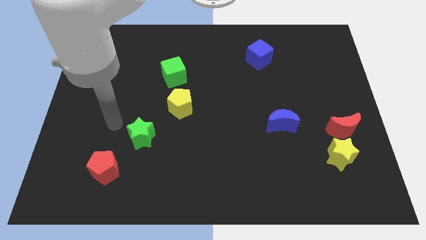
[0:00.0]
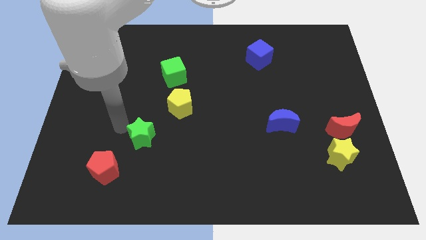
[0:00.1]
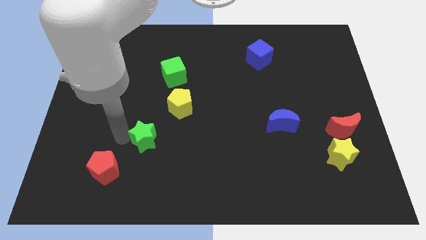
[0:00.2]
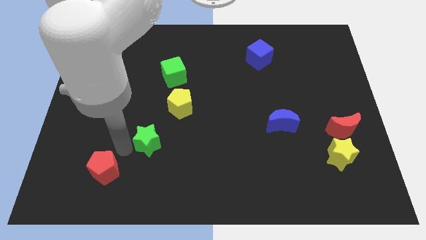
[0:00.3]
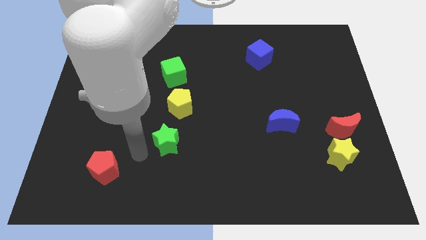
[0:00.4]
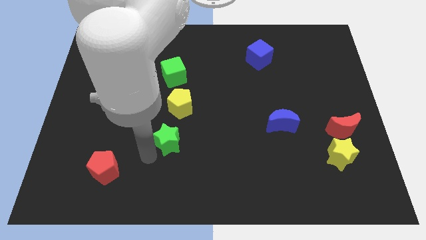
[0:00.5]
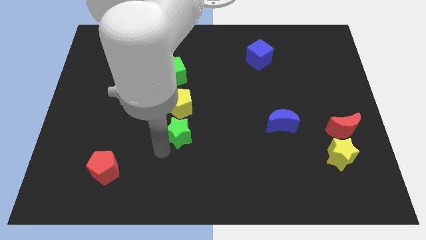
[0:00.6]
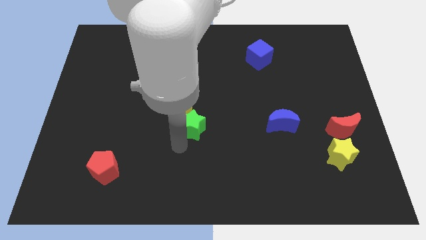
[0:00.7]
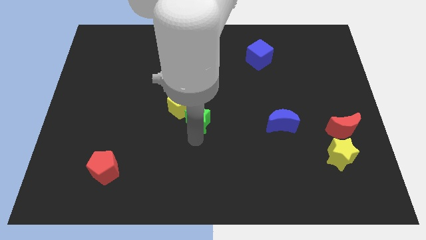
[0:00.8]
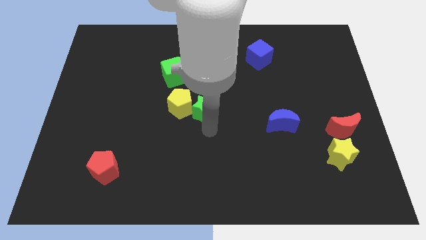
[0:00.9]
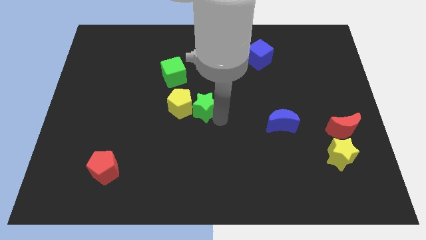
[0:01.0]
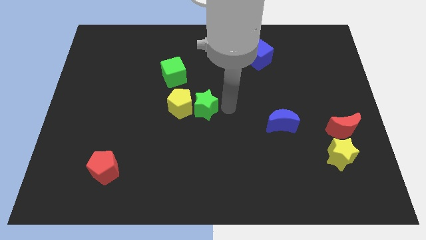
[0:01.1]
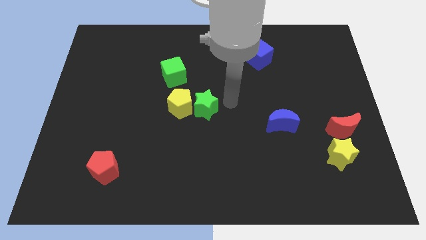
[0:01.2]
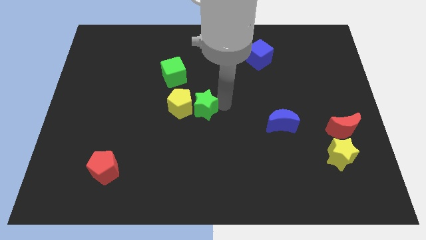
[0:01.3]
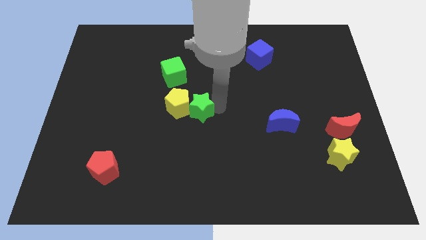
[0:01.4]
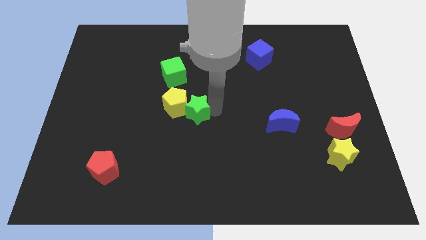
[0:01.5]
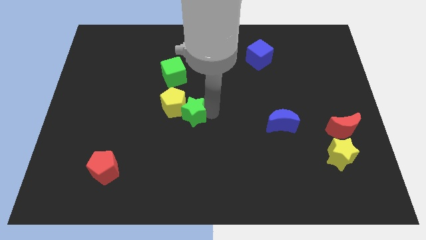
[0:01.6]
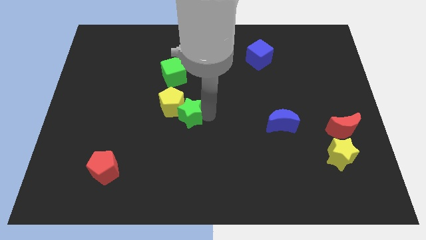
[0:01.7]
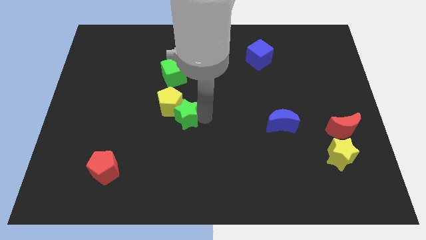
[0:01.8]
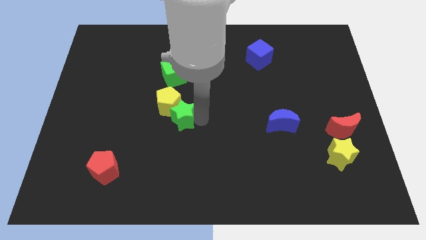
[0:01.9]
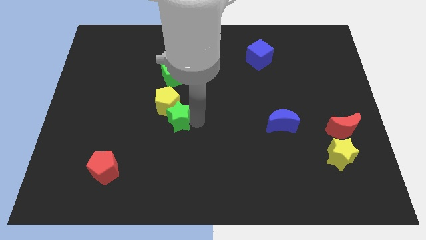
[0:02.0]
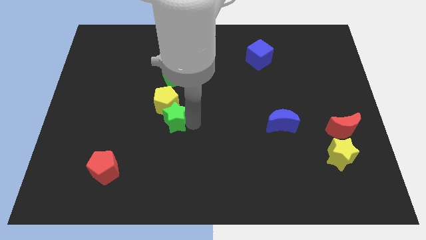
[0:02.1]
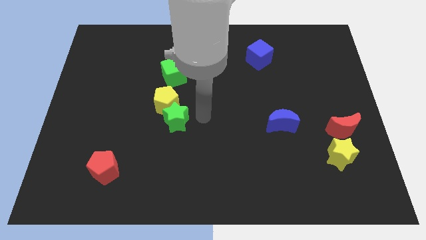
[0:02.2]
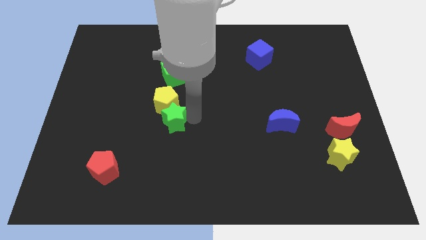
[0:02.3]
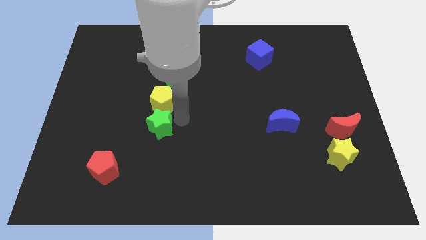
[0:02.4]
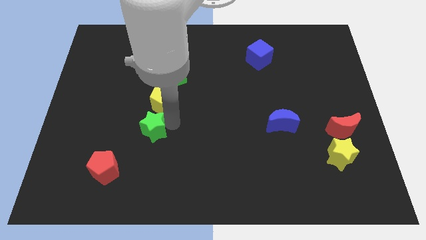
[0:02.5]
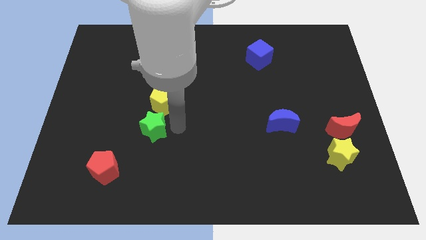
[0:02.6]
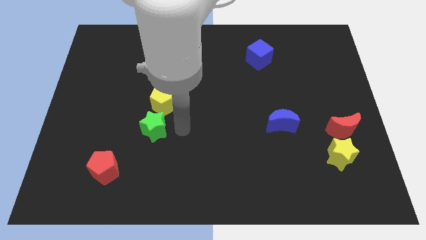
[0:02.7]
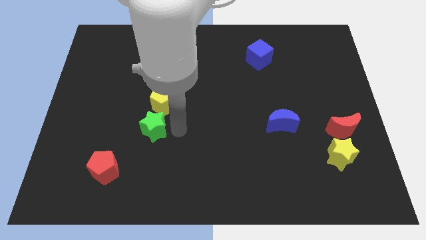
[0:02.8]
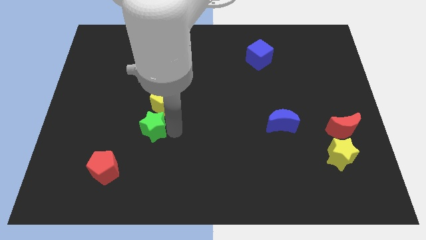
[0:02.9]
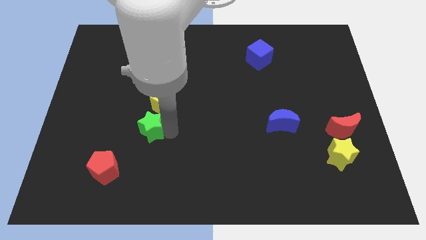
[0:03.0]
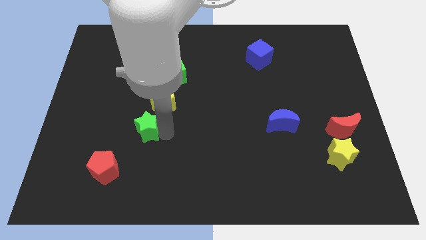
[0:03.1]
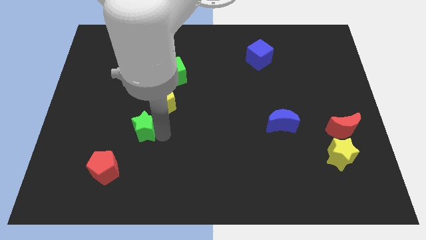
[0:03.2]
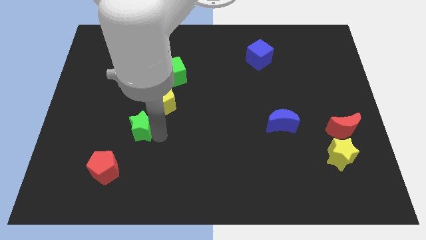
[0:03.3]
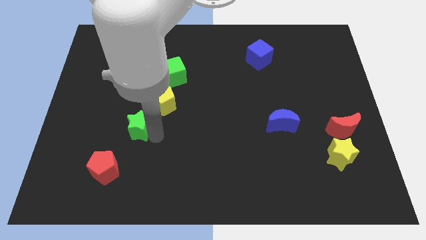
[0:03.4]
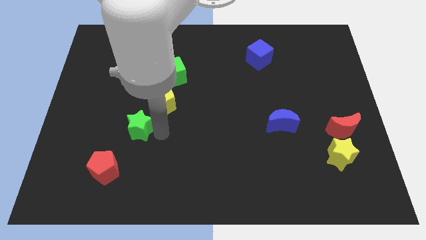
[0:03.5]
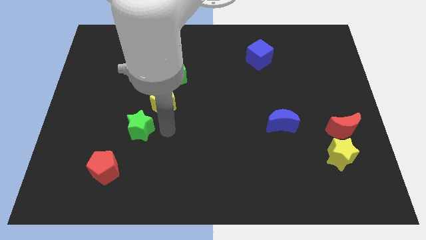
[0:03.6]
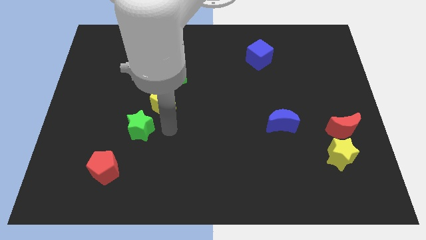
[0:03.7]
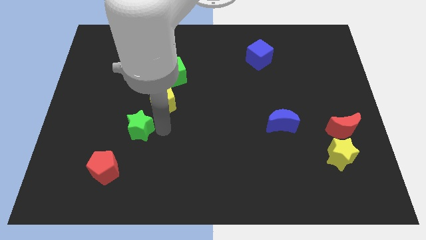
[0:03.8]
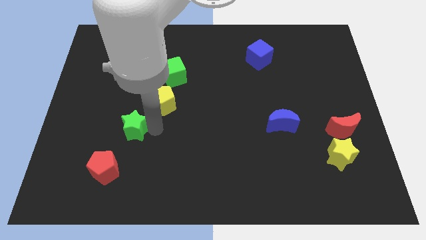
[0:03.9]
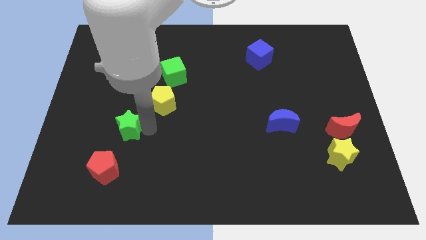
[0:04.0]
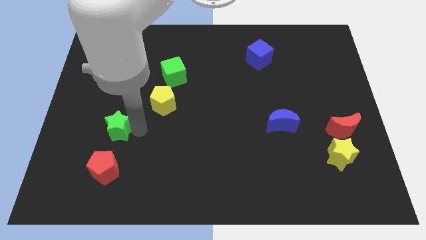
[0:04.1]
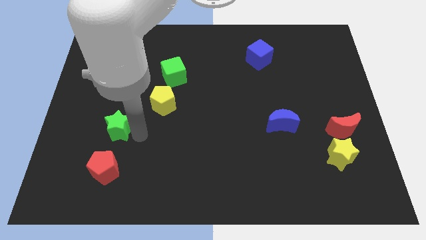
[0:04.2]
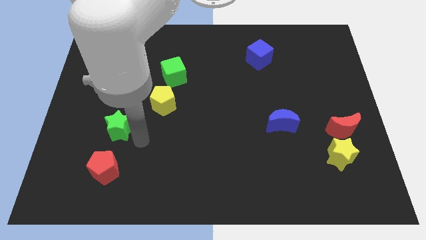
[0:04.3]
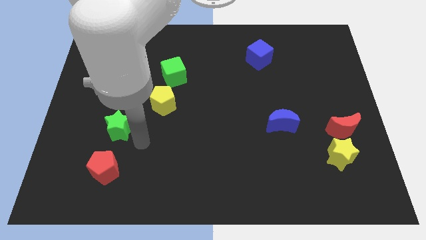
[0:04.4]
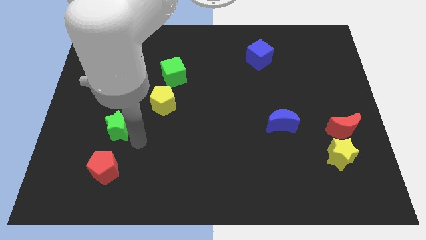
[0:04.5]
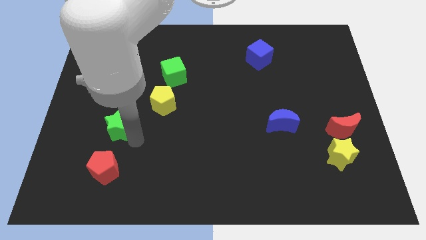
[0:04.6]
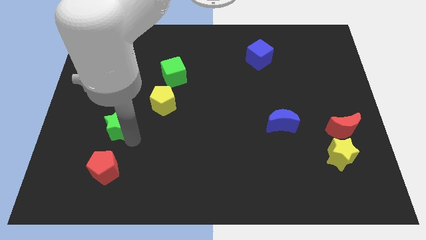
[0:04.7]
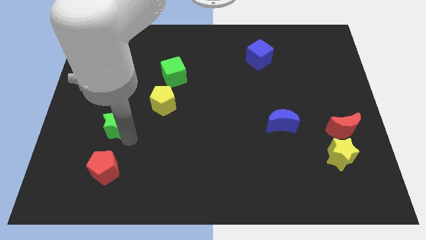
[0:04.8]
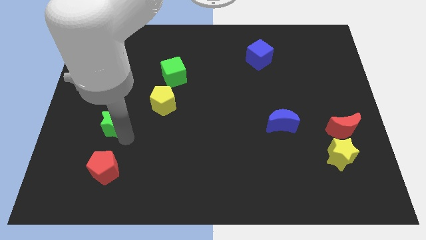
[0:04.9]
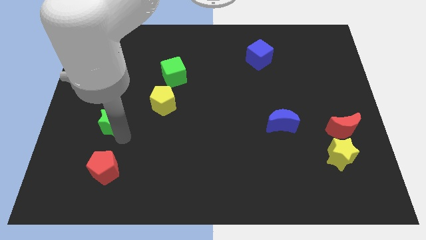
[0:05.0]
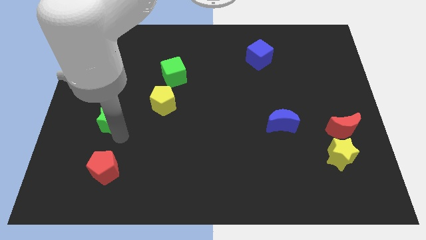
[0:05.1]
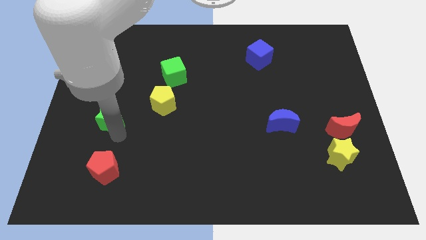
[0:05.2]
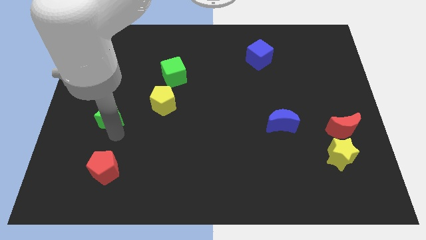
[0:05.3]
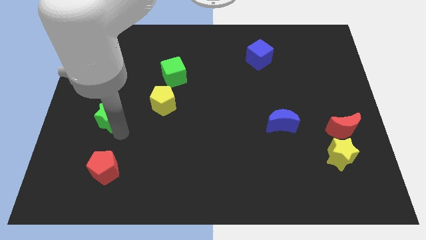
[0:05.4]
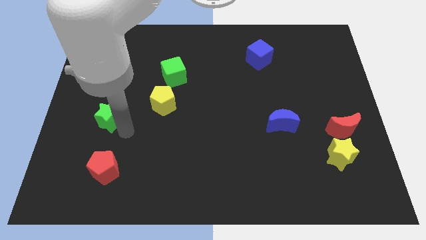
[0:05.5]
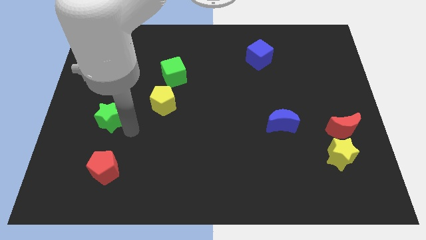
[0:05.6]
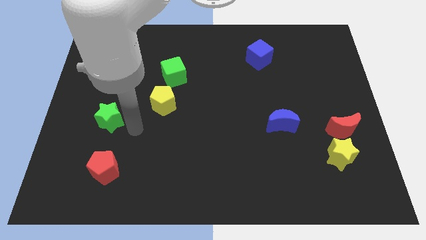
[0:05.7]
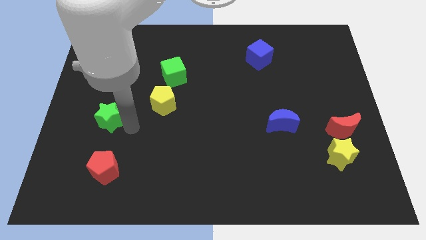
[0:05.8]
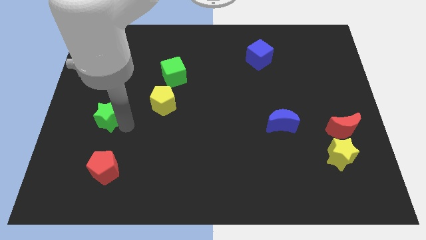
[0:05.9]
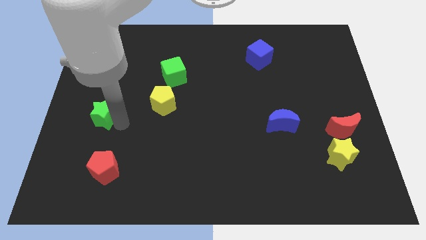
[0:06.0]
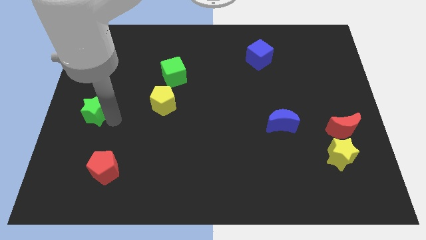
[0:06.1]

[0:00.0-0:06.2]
move the green star to the center left
